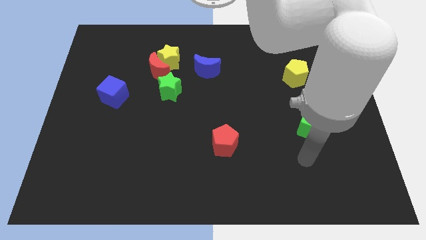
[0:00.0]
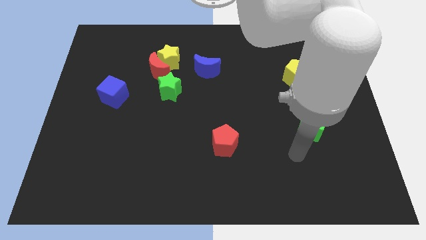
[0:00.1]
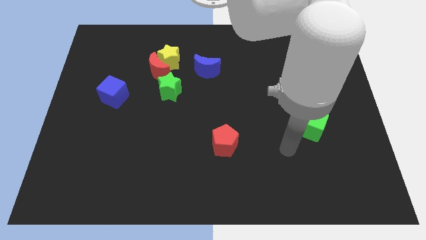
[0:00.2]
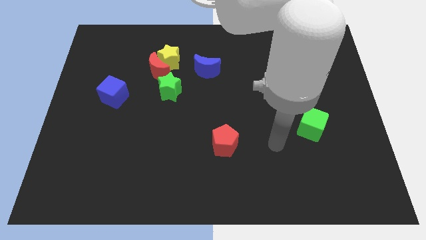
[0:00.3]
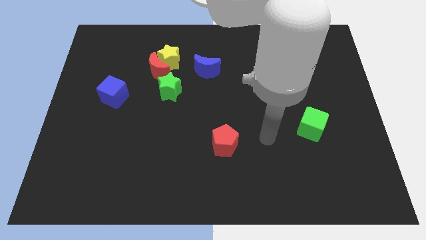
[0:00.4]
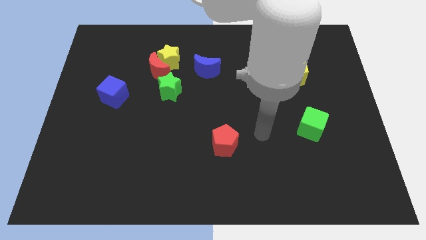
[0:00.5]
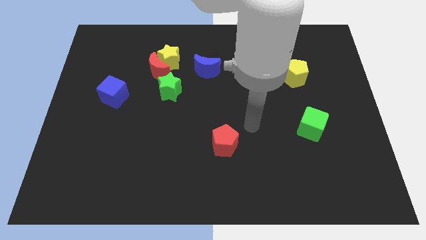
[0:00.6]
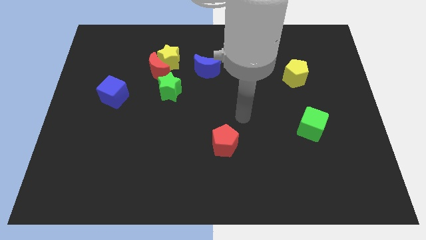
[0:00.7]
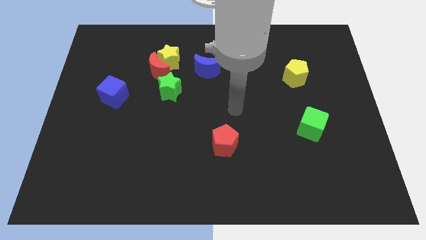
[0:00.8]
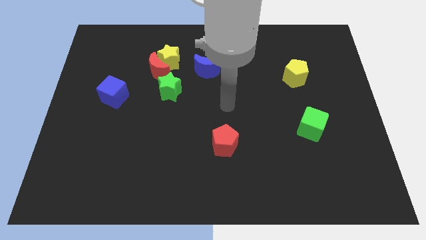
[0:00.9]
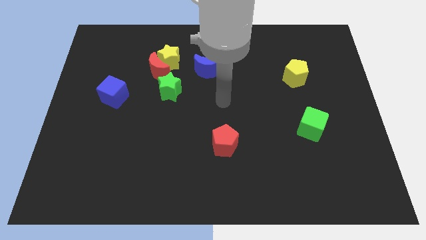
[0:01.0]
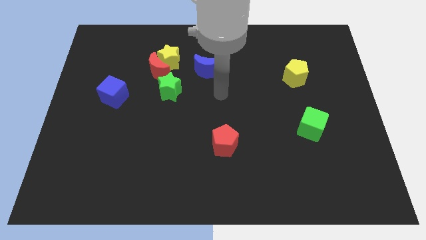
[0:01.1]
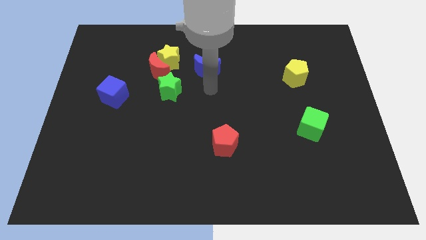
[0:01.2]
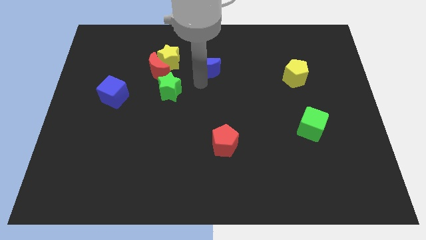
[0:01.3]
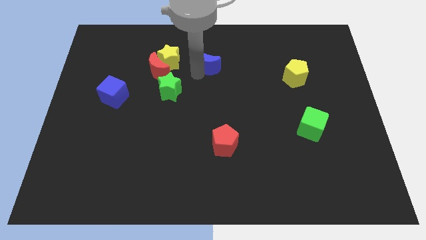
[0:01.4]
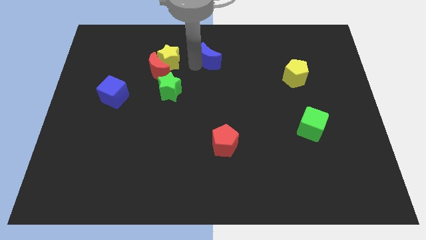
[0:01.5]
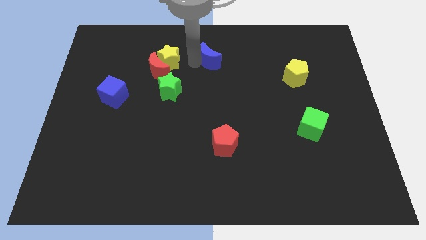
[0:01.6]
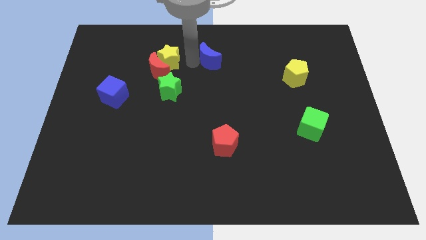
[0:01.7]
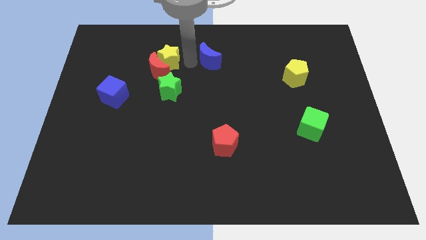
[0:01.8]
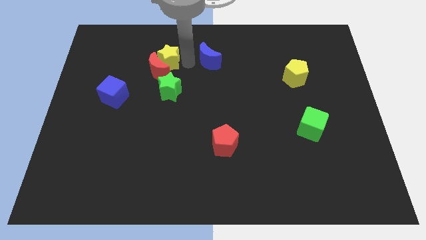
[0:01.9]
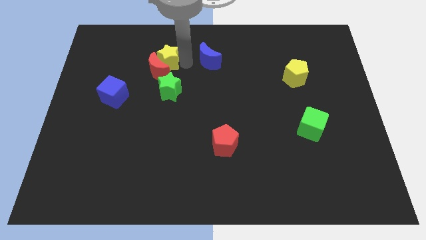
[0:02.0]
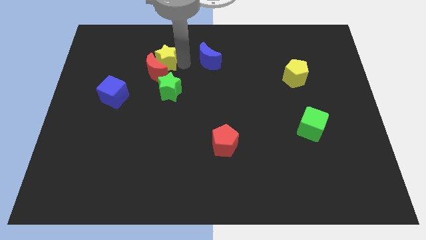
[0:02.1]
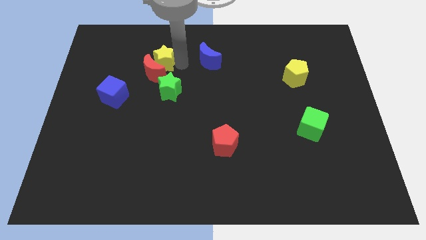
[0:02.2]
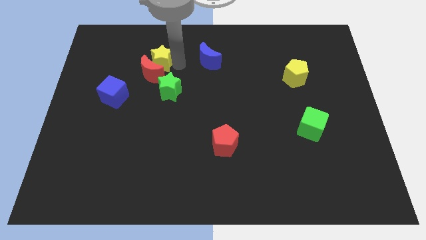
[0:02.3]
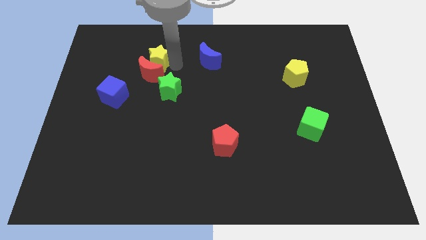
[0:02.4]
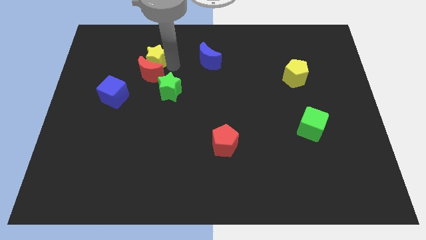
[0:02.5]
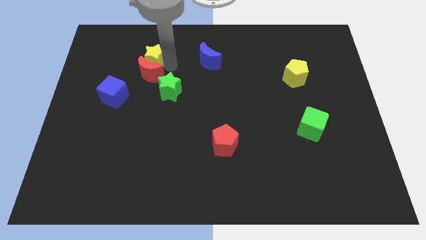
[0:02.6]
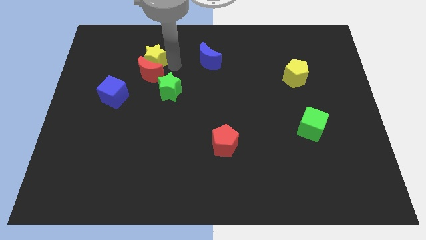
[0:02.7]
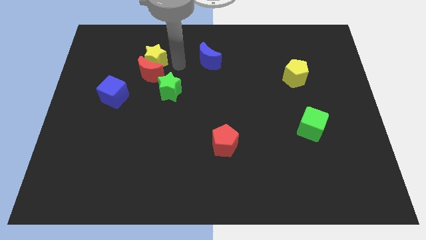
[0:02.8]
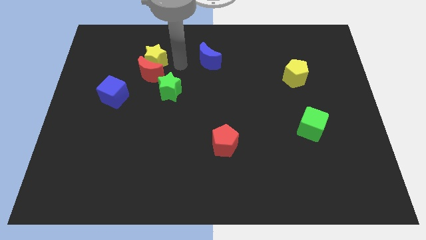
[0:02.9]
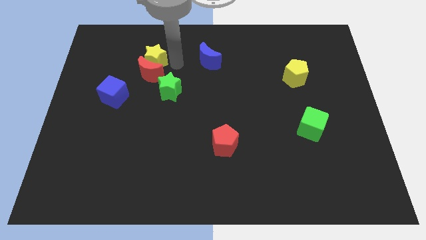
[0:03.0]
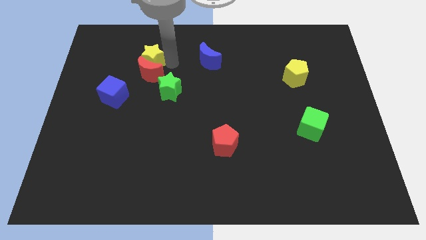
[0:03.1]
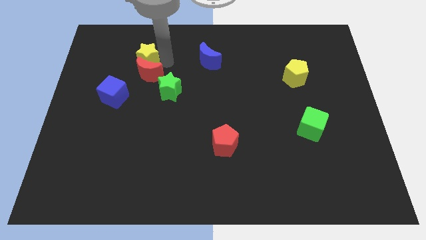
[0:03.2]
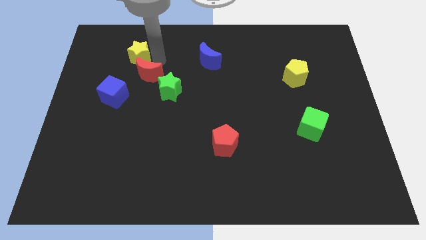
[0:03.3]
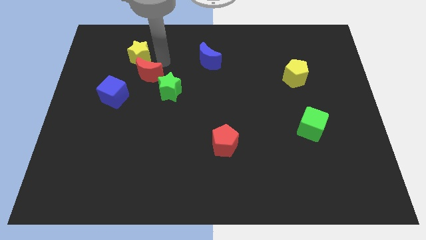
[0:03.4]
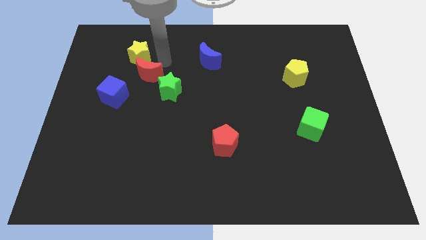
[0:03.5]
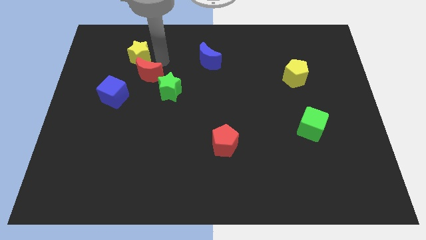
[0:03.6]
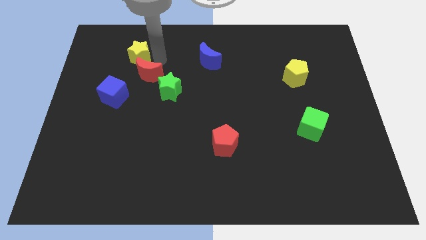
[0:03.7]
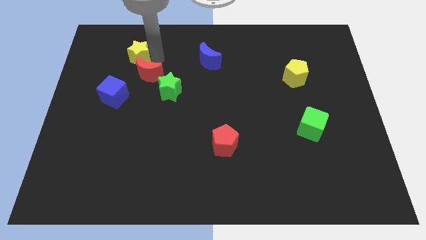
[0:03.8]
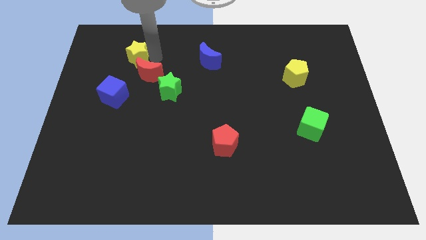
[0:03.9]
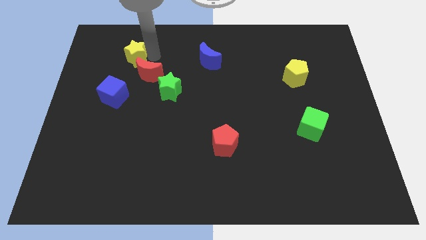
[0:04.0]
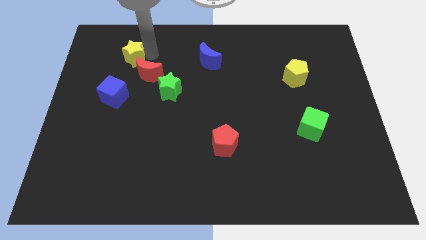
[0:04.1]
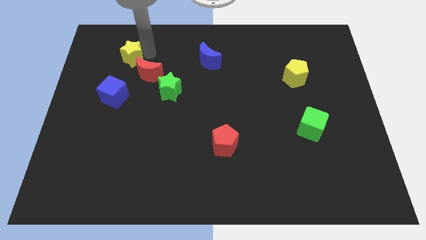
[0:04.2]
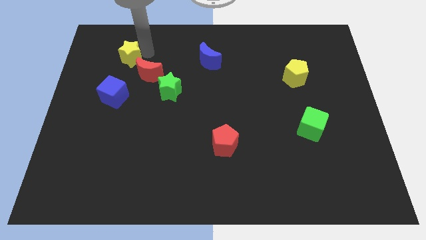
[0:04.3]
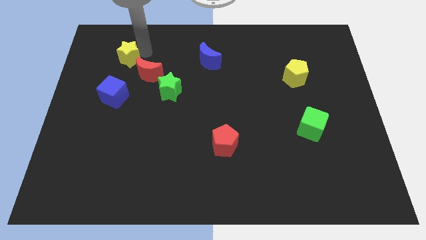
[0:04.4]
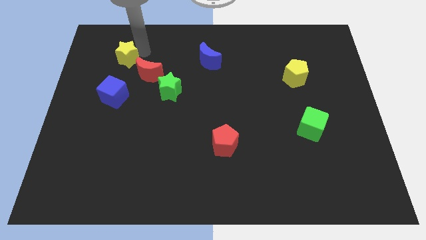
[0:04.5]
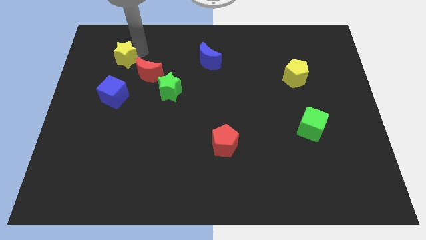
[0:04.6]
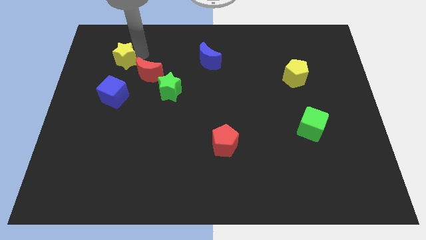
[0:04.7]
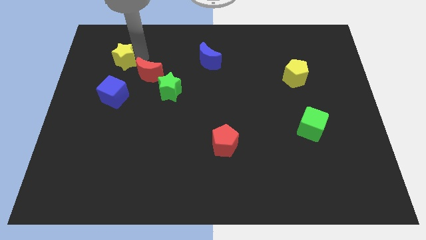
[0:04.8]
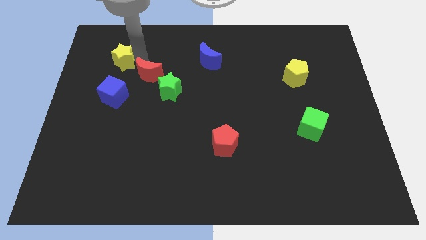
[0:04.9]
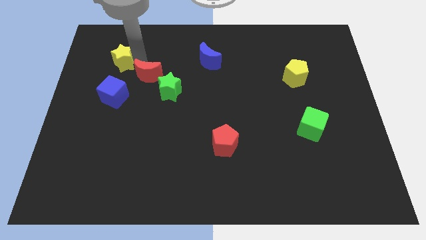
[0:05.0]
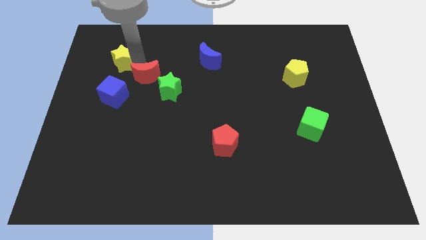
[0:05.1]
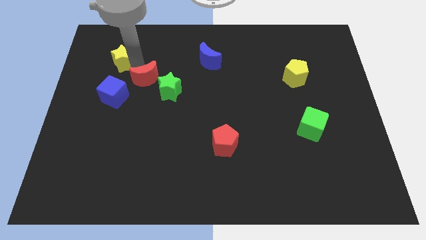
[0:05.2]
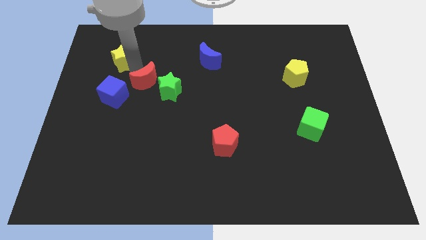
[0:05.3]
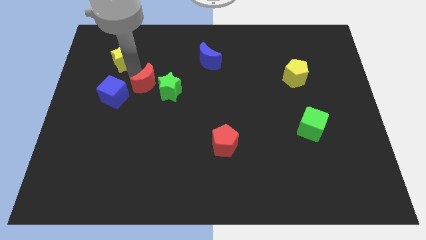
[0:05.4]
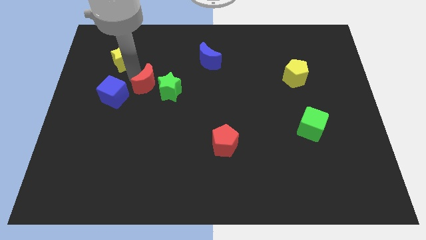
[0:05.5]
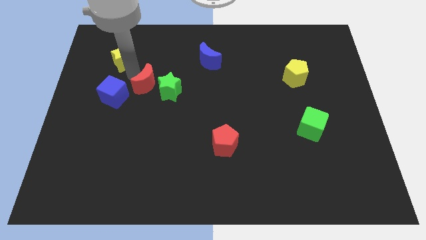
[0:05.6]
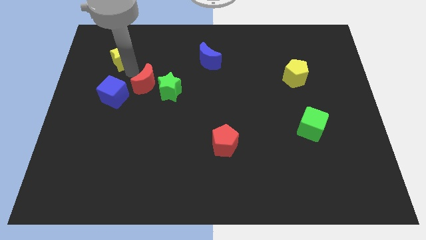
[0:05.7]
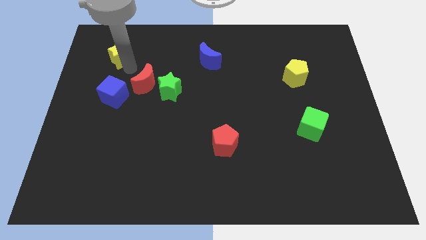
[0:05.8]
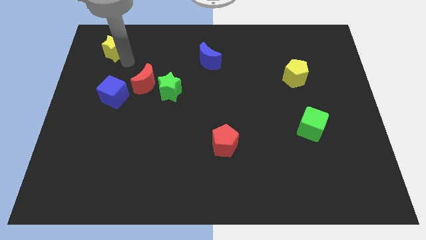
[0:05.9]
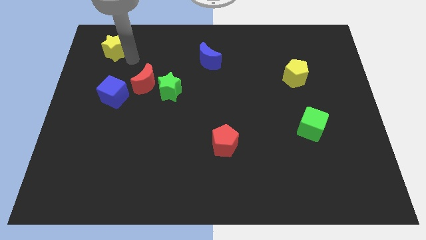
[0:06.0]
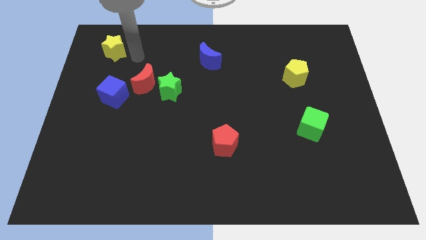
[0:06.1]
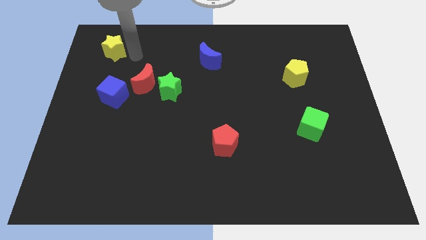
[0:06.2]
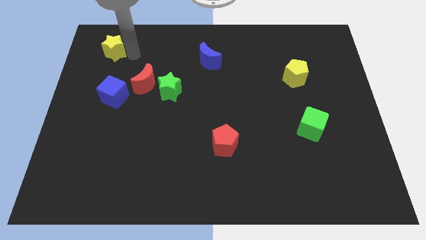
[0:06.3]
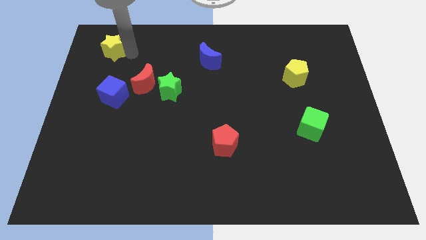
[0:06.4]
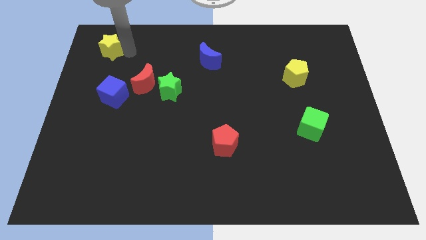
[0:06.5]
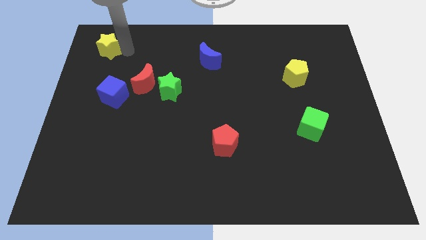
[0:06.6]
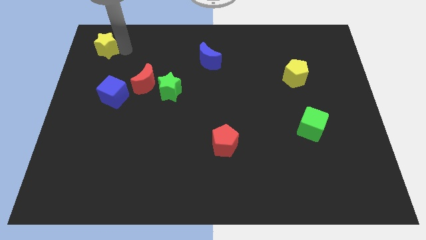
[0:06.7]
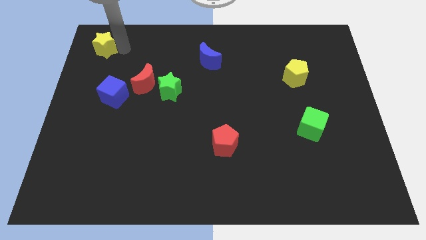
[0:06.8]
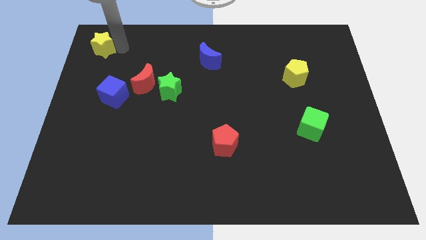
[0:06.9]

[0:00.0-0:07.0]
put the yellow star to the upper left corner
